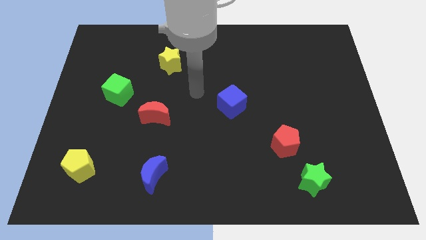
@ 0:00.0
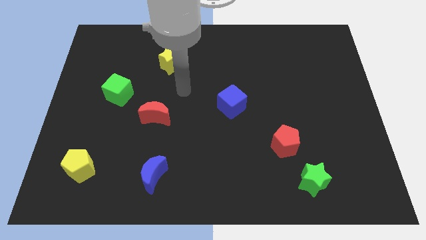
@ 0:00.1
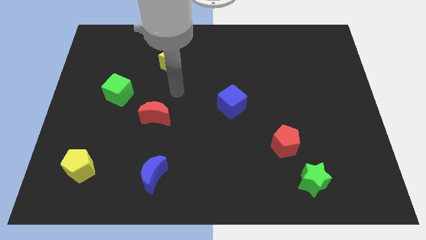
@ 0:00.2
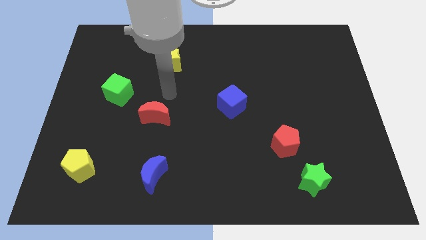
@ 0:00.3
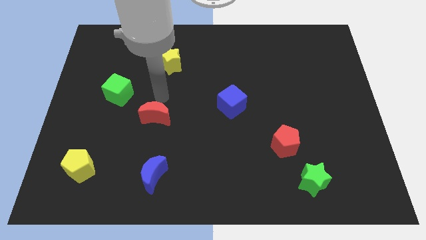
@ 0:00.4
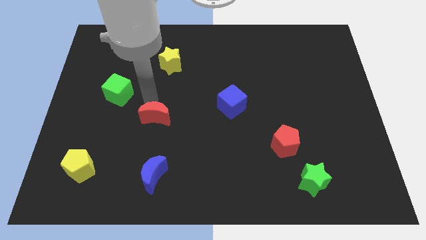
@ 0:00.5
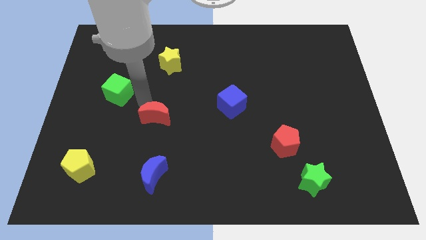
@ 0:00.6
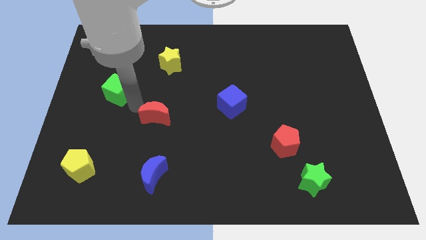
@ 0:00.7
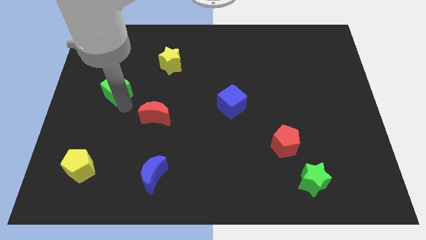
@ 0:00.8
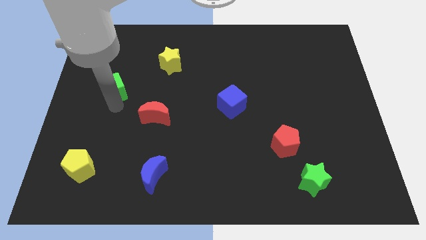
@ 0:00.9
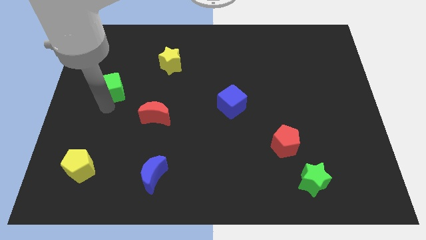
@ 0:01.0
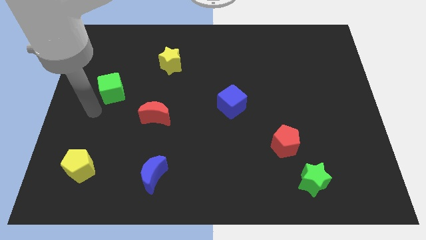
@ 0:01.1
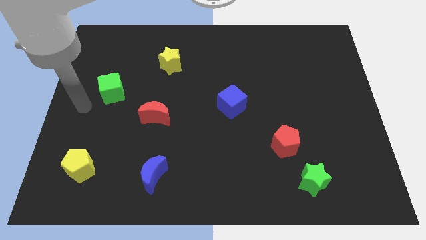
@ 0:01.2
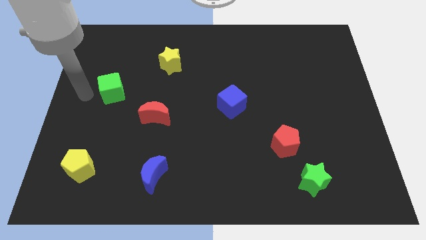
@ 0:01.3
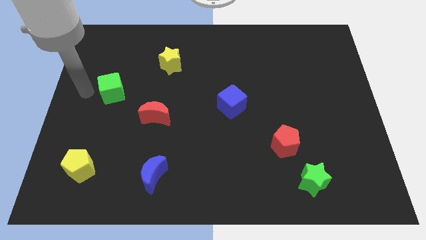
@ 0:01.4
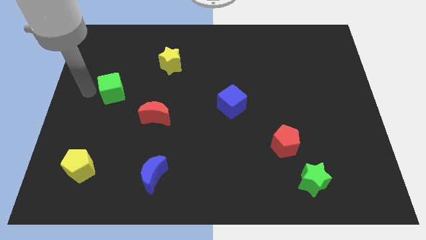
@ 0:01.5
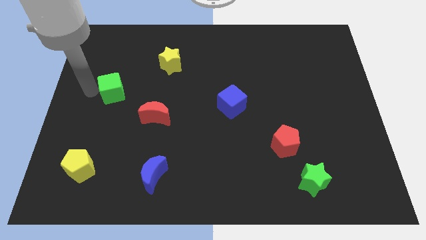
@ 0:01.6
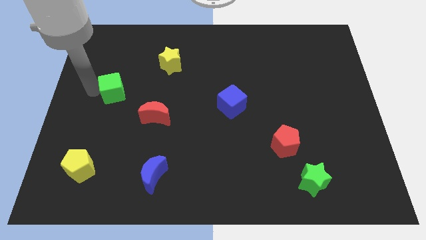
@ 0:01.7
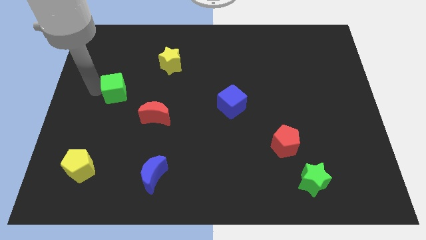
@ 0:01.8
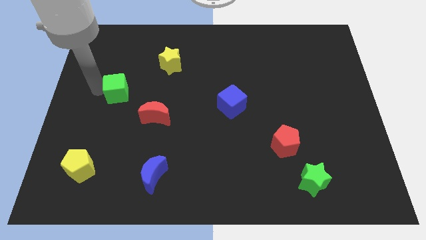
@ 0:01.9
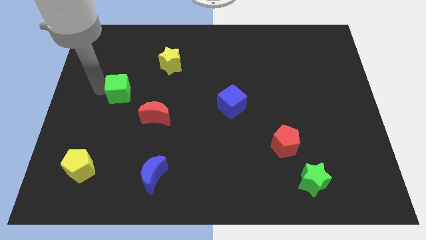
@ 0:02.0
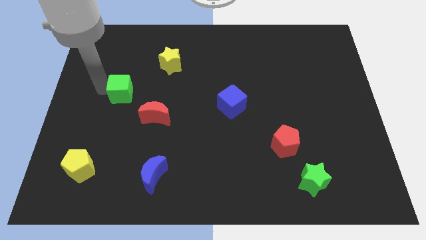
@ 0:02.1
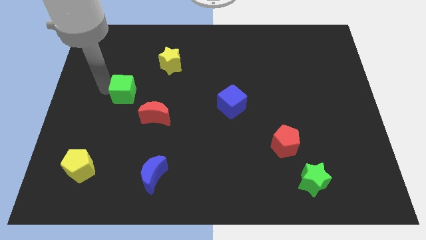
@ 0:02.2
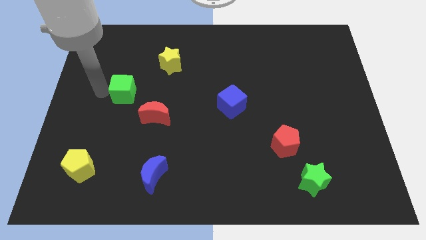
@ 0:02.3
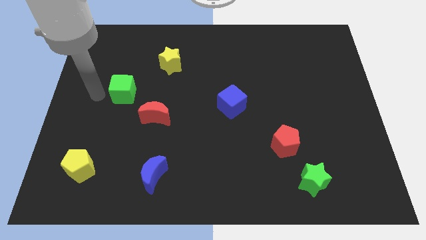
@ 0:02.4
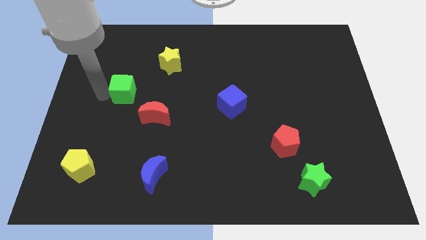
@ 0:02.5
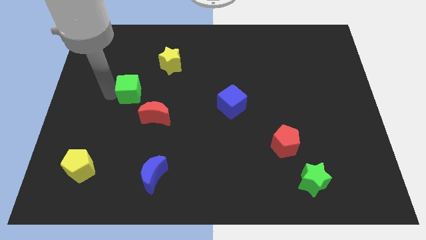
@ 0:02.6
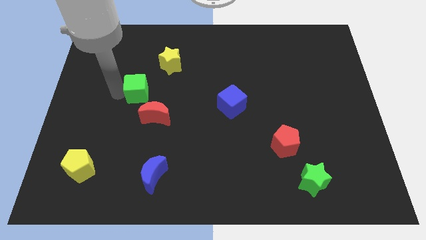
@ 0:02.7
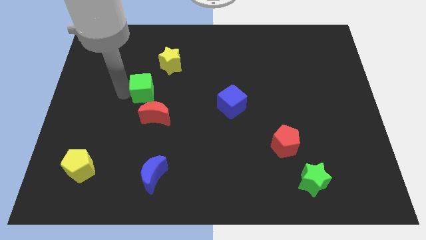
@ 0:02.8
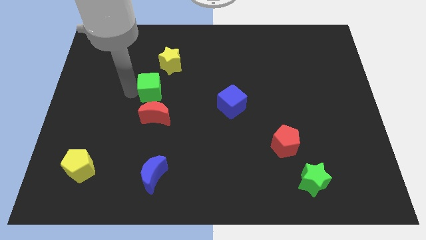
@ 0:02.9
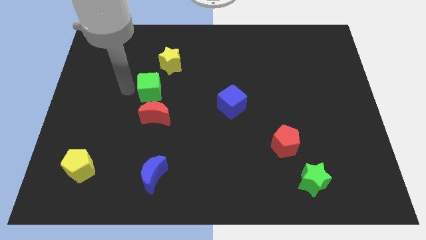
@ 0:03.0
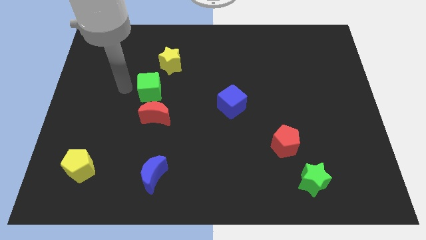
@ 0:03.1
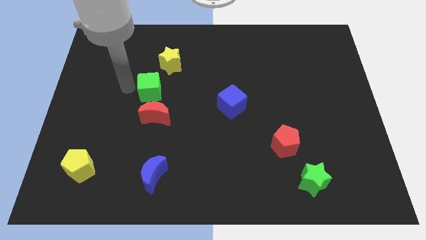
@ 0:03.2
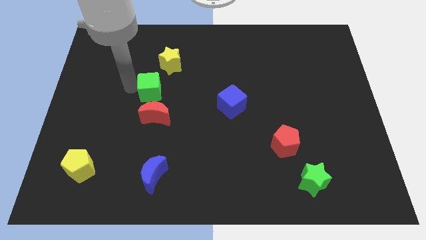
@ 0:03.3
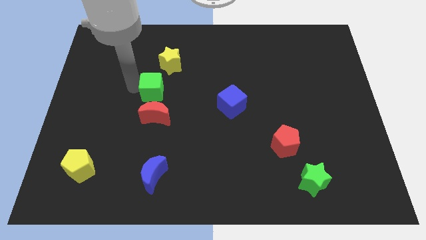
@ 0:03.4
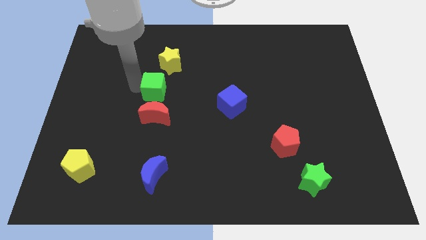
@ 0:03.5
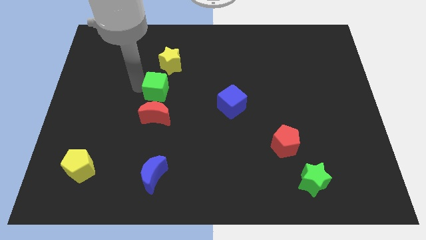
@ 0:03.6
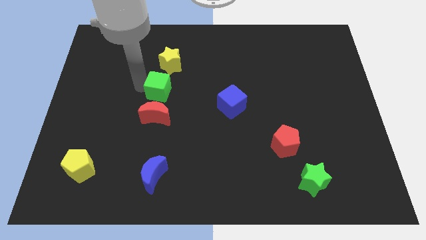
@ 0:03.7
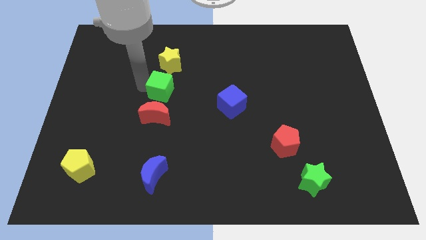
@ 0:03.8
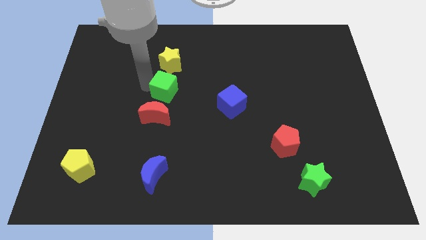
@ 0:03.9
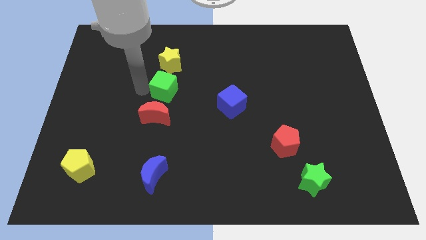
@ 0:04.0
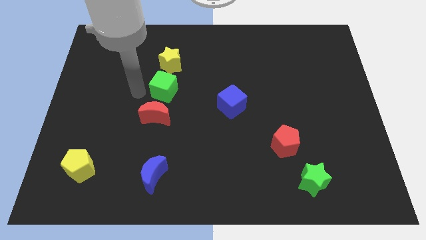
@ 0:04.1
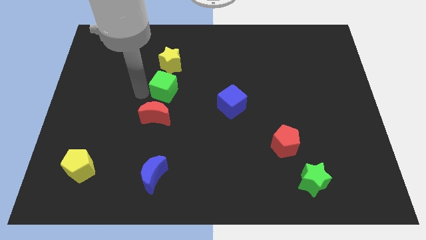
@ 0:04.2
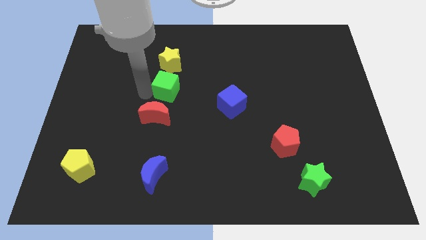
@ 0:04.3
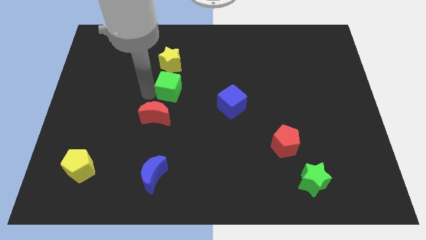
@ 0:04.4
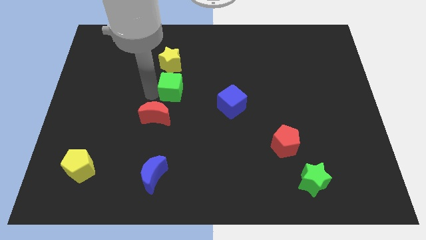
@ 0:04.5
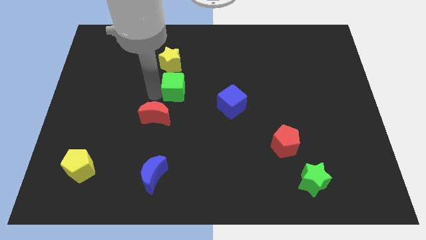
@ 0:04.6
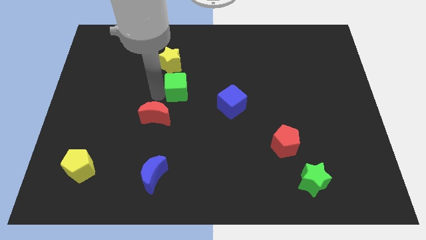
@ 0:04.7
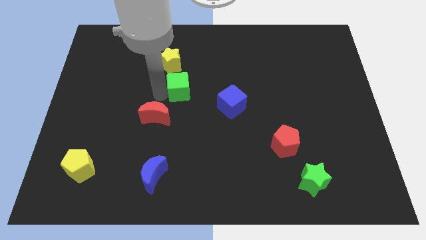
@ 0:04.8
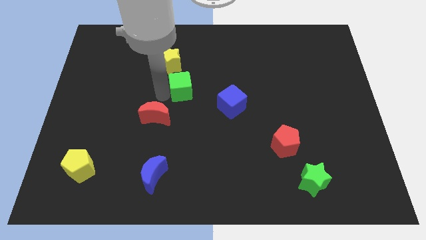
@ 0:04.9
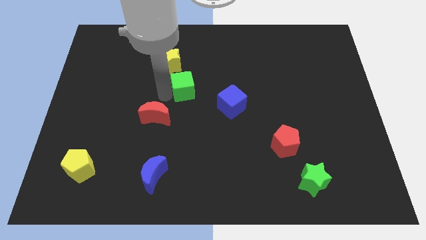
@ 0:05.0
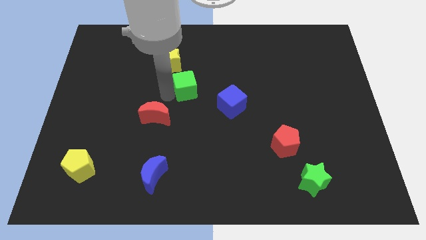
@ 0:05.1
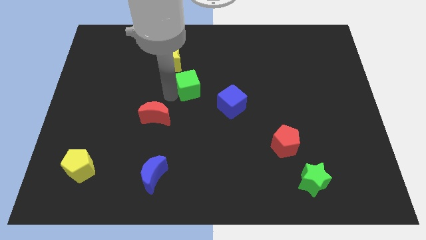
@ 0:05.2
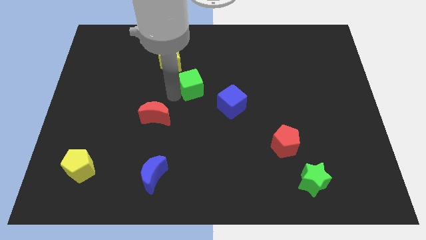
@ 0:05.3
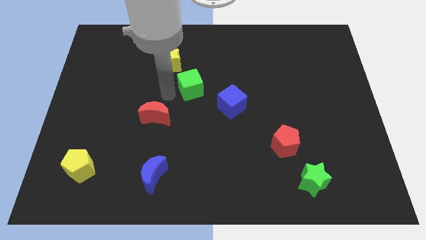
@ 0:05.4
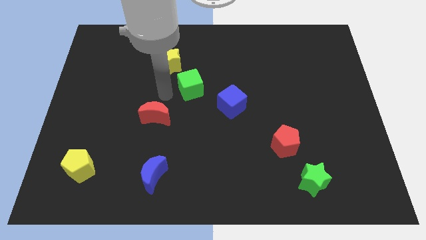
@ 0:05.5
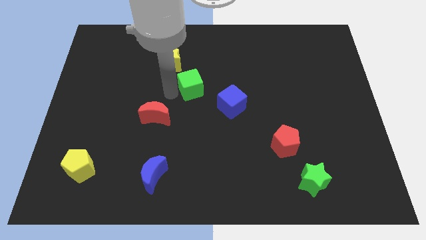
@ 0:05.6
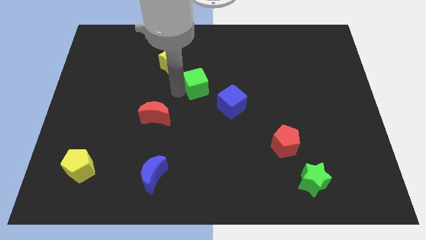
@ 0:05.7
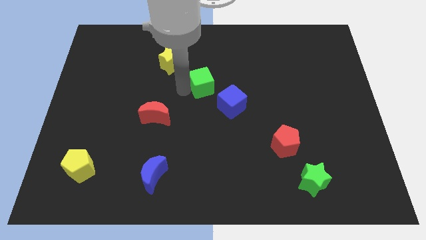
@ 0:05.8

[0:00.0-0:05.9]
slide the green cube right

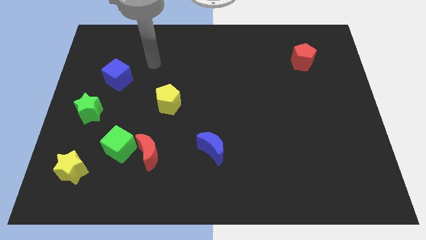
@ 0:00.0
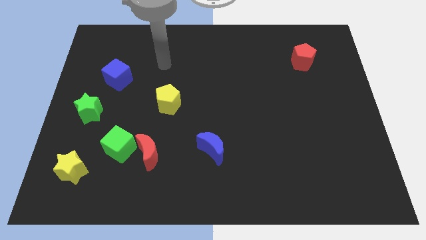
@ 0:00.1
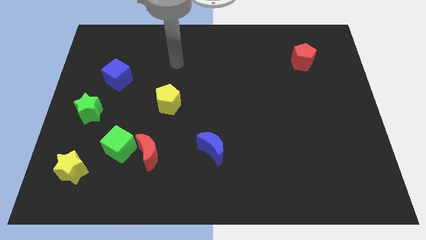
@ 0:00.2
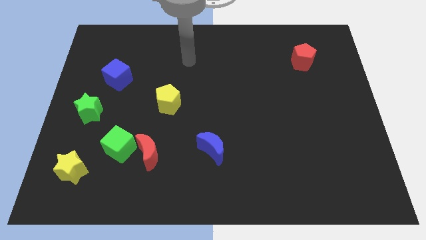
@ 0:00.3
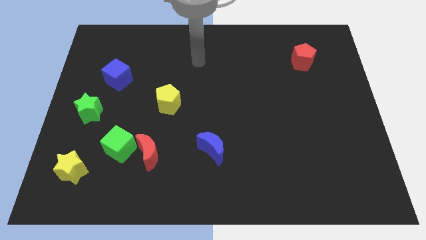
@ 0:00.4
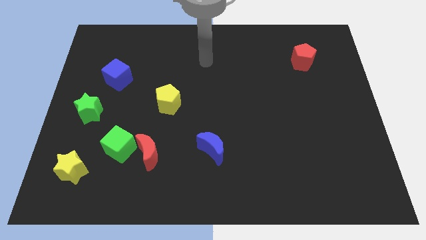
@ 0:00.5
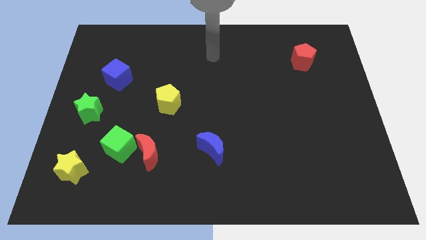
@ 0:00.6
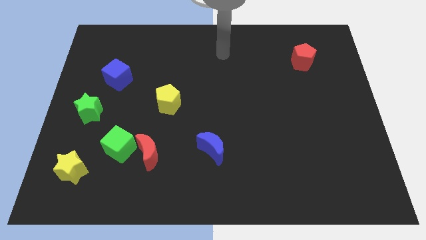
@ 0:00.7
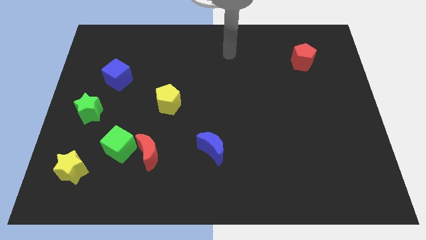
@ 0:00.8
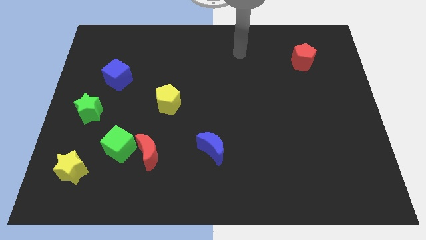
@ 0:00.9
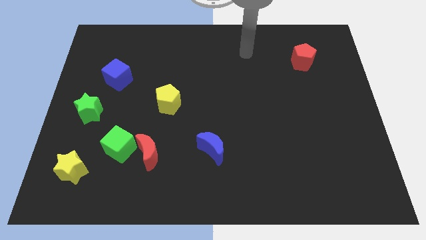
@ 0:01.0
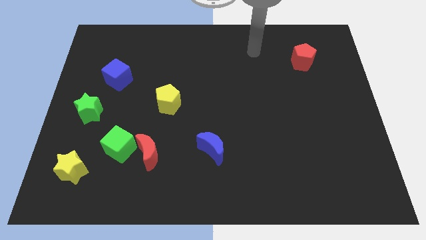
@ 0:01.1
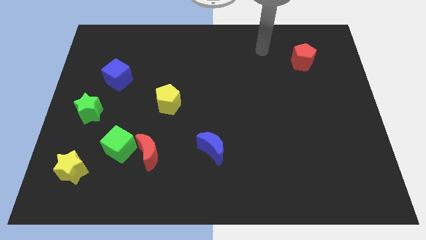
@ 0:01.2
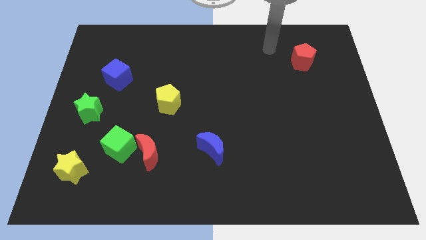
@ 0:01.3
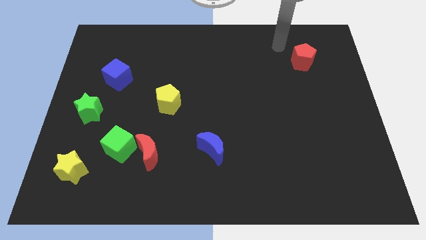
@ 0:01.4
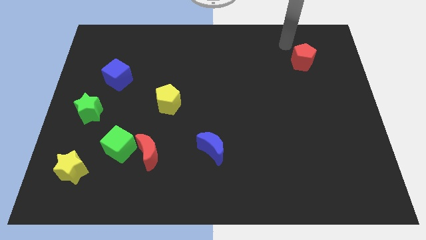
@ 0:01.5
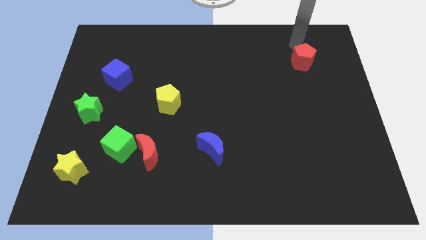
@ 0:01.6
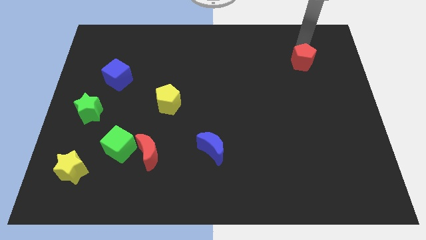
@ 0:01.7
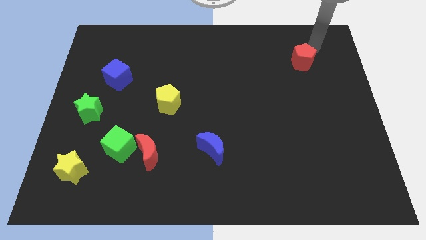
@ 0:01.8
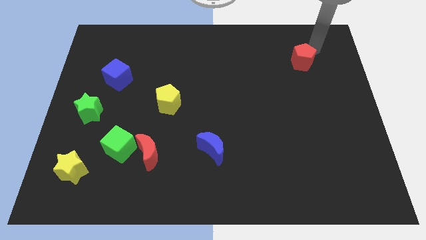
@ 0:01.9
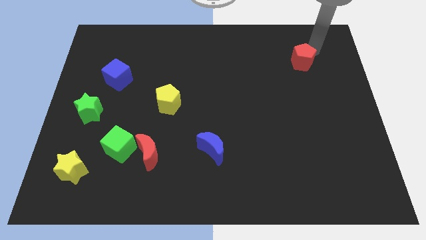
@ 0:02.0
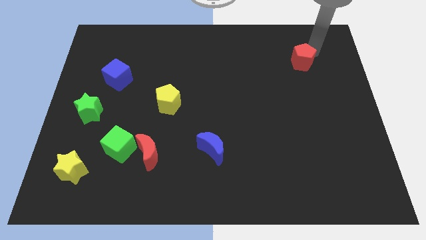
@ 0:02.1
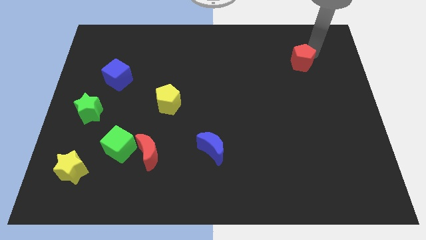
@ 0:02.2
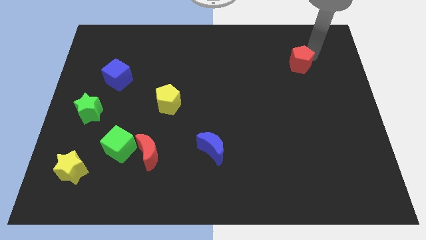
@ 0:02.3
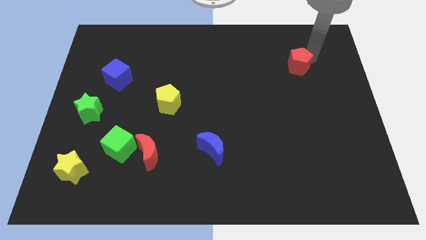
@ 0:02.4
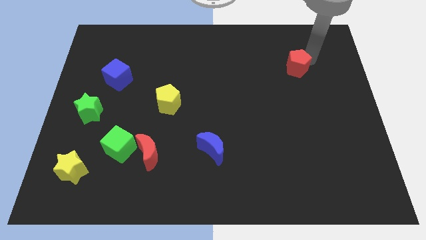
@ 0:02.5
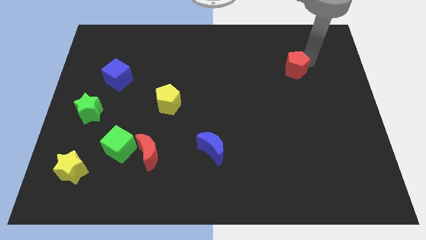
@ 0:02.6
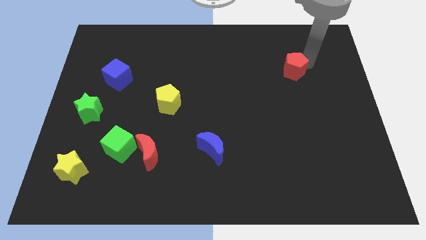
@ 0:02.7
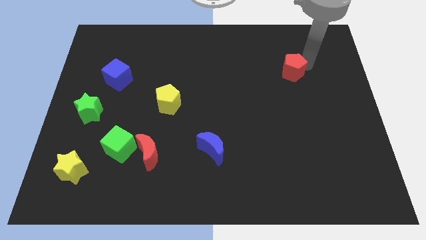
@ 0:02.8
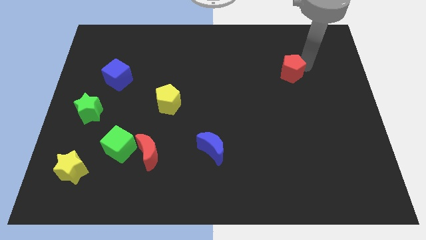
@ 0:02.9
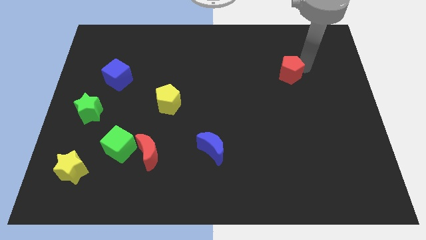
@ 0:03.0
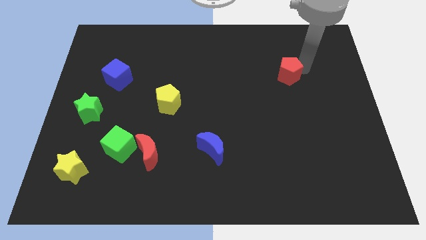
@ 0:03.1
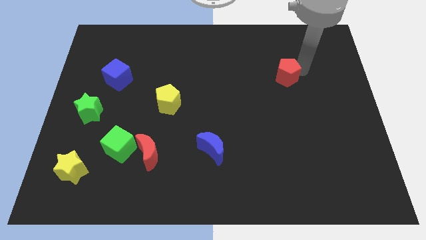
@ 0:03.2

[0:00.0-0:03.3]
slide the red pentagon a little bit down and left diagonally
